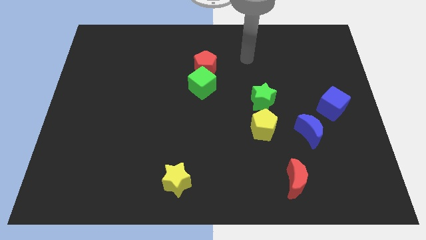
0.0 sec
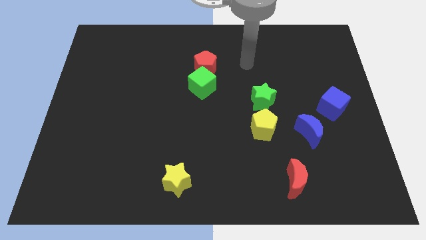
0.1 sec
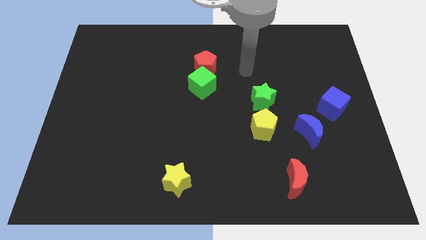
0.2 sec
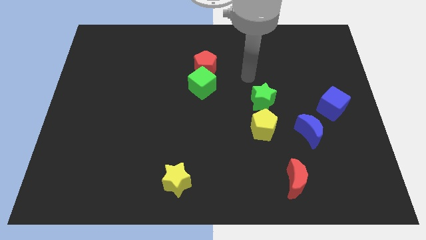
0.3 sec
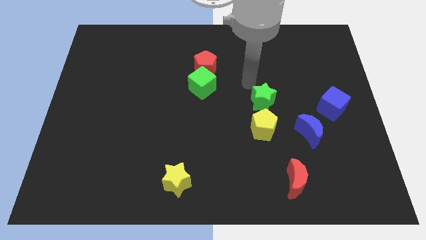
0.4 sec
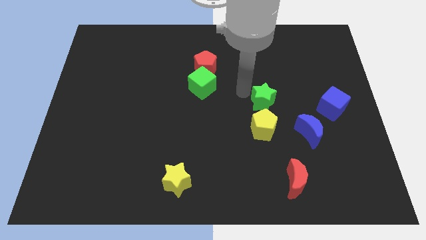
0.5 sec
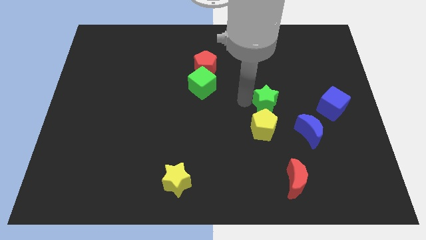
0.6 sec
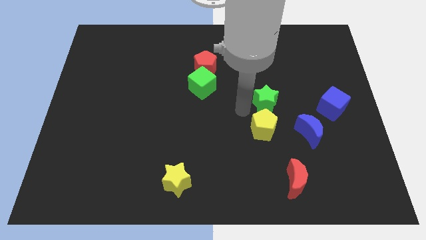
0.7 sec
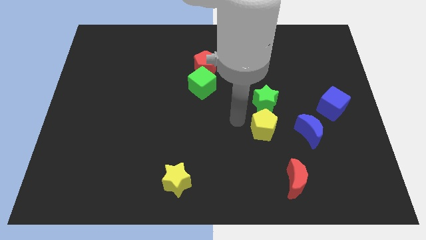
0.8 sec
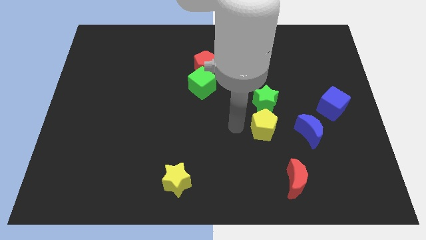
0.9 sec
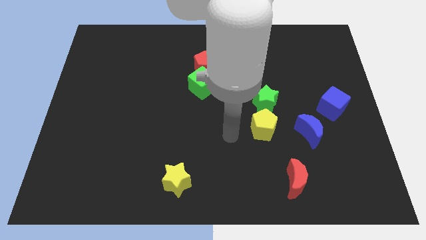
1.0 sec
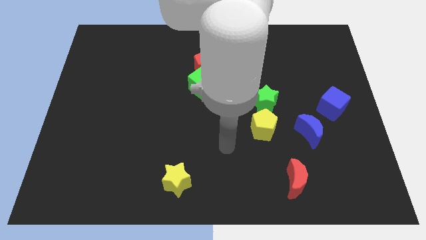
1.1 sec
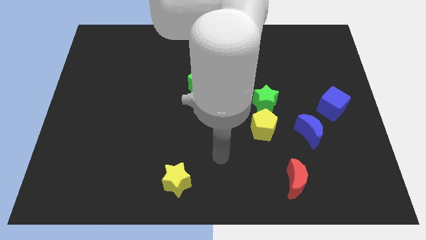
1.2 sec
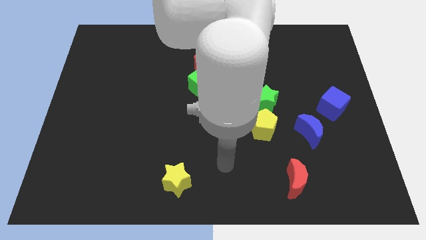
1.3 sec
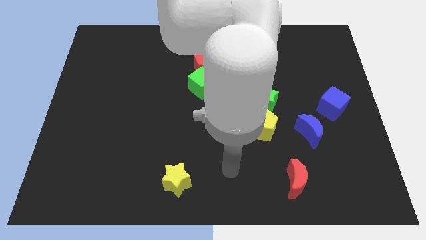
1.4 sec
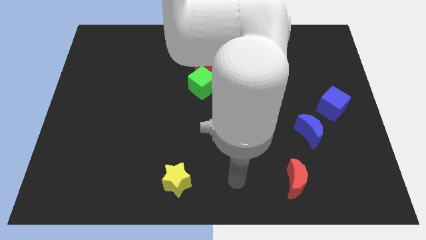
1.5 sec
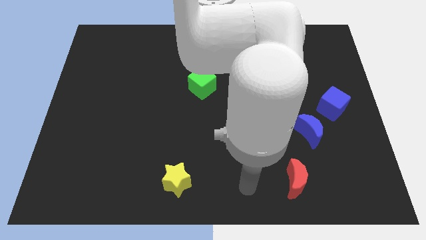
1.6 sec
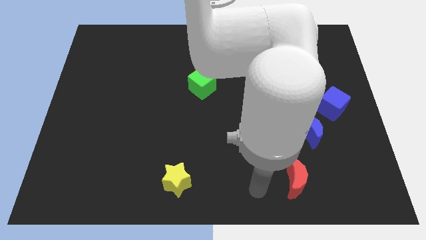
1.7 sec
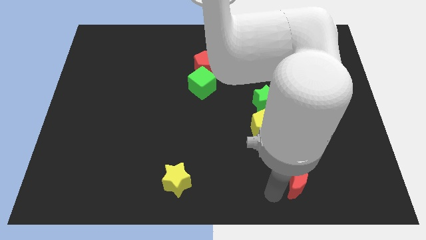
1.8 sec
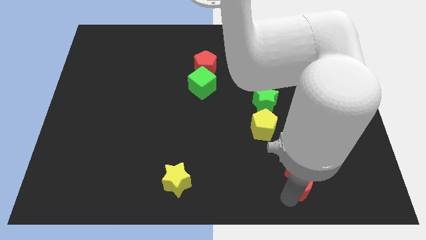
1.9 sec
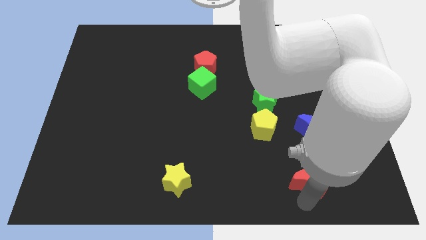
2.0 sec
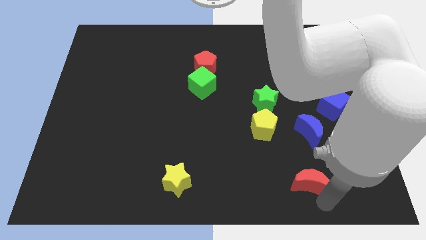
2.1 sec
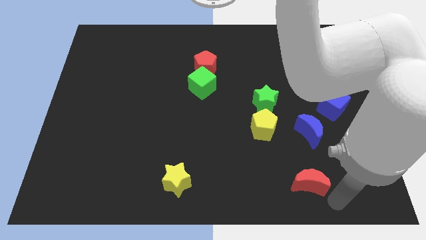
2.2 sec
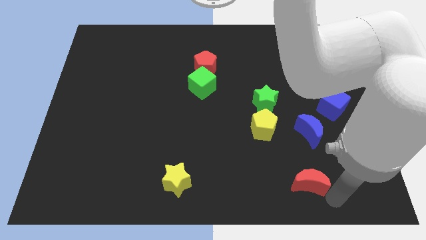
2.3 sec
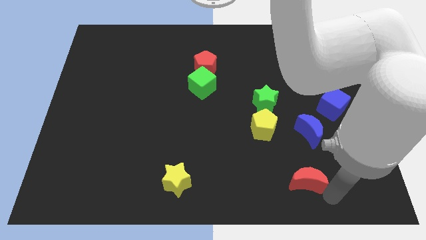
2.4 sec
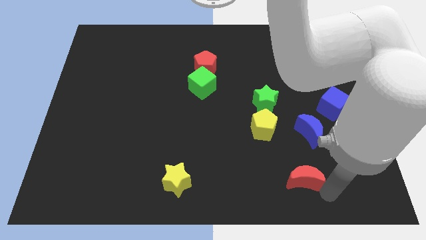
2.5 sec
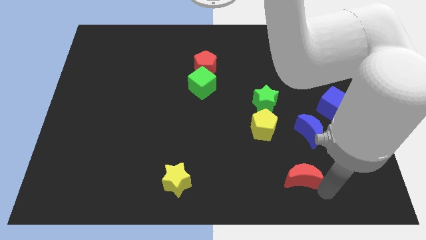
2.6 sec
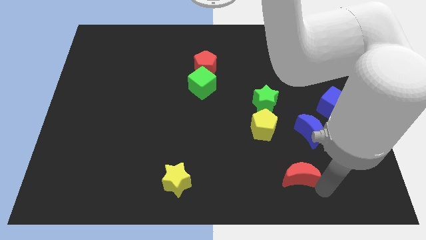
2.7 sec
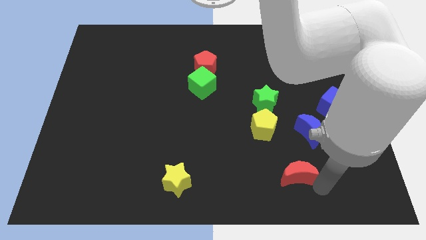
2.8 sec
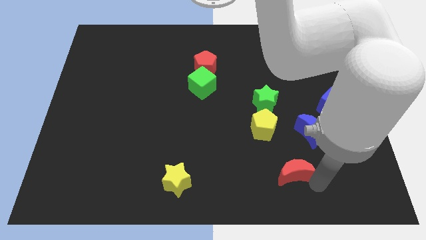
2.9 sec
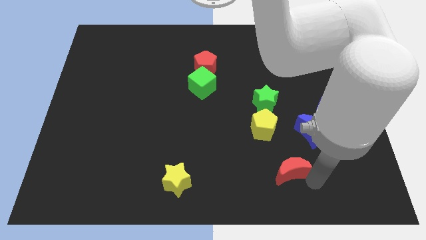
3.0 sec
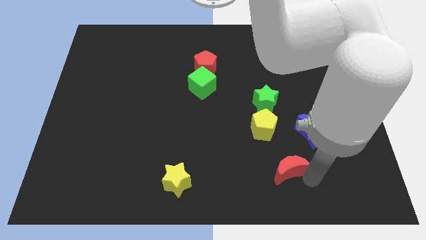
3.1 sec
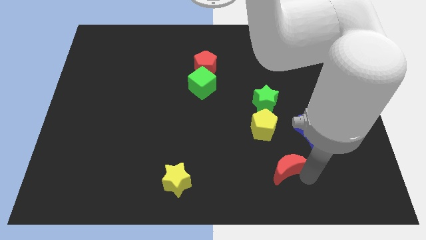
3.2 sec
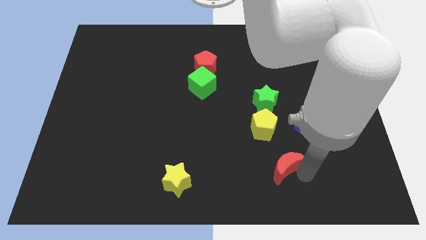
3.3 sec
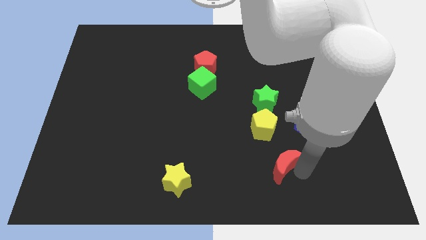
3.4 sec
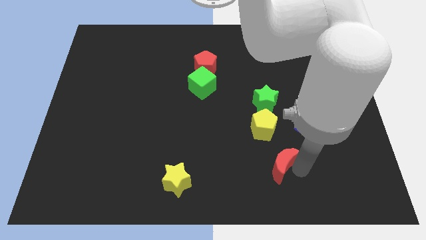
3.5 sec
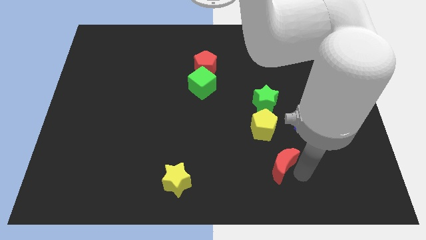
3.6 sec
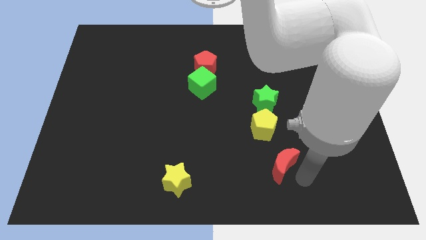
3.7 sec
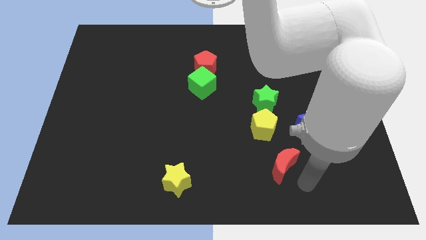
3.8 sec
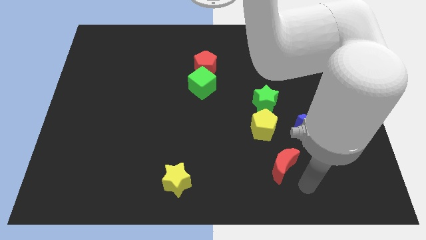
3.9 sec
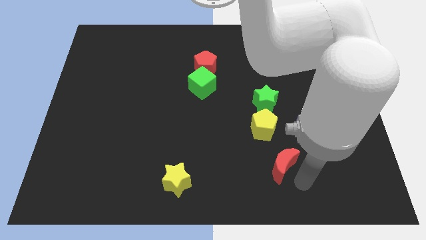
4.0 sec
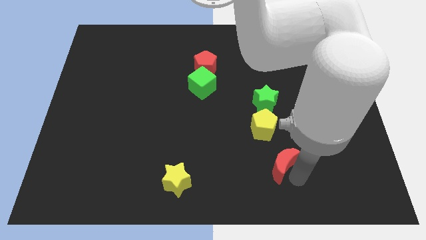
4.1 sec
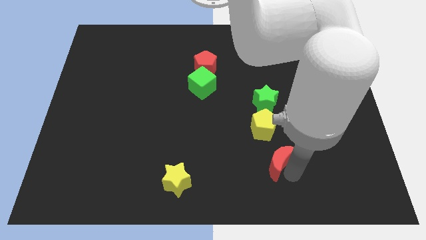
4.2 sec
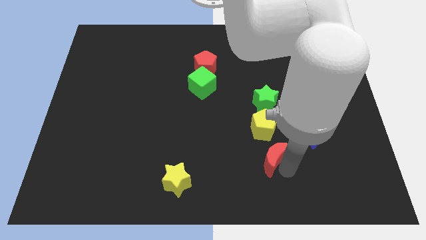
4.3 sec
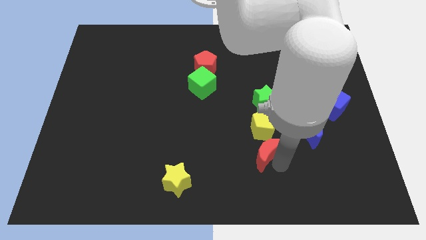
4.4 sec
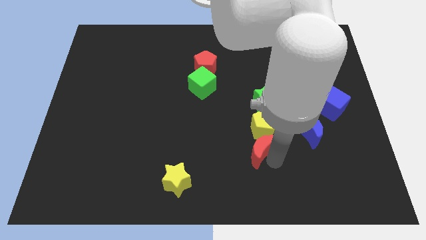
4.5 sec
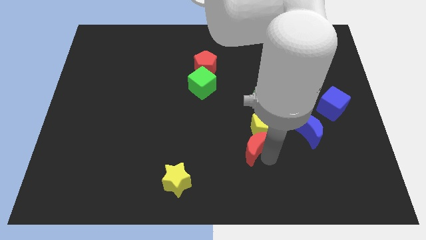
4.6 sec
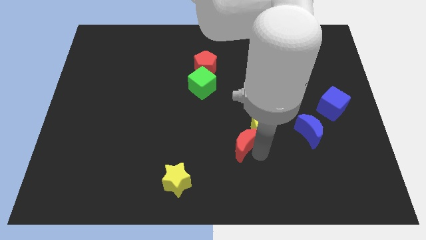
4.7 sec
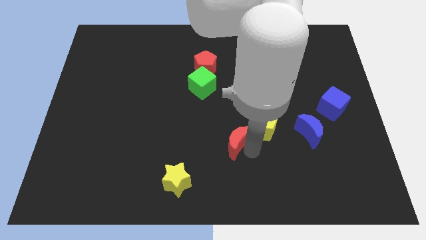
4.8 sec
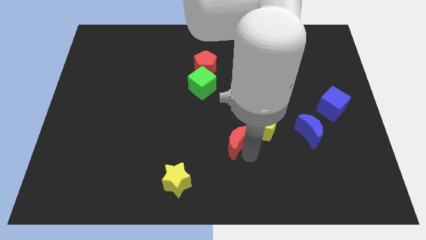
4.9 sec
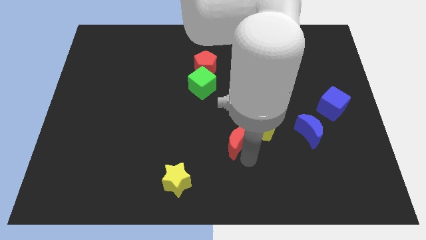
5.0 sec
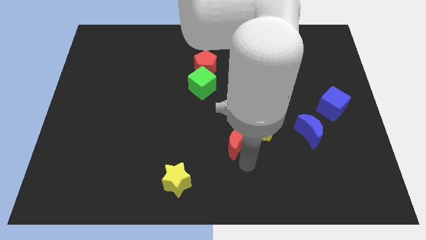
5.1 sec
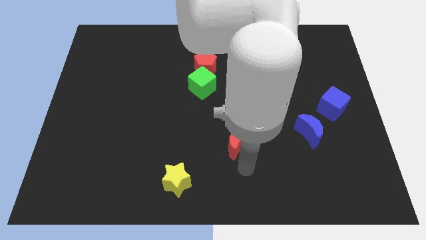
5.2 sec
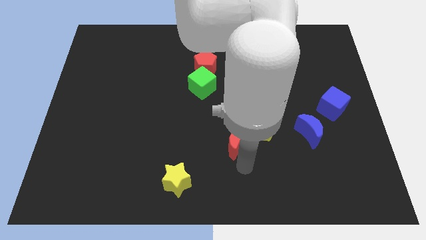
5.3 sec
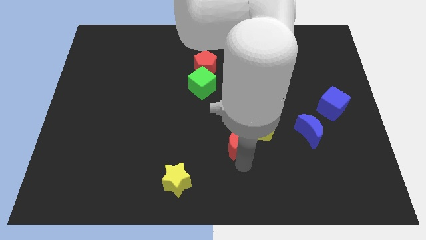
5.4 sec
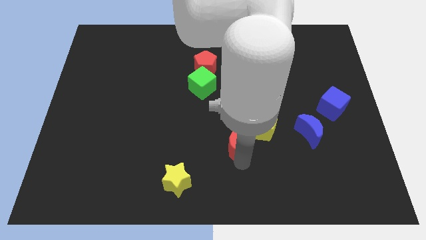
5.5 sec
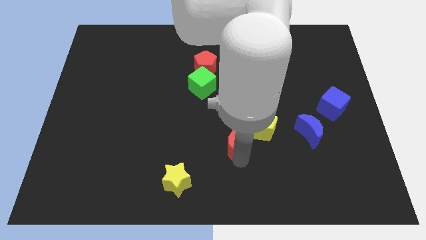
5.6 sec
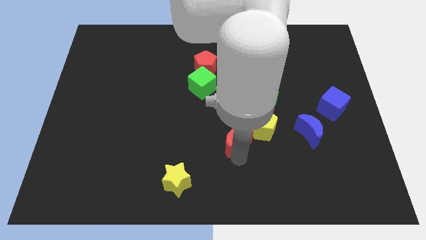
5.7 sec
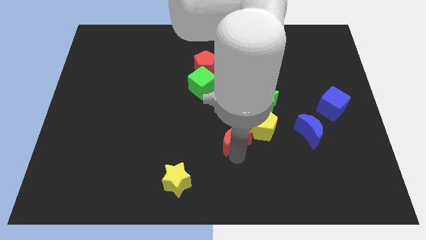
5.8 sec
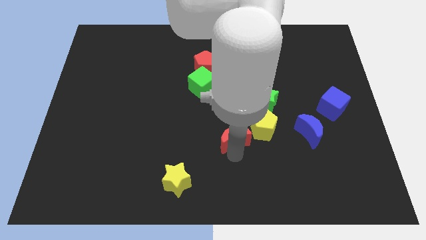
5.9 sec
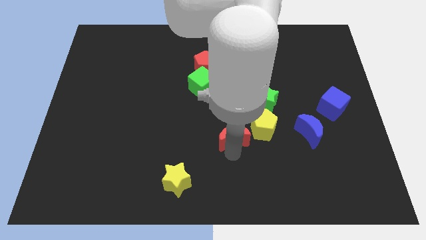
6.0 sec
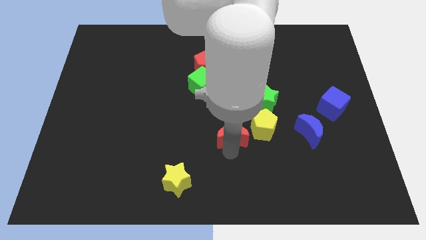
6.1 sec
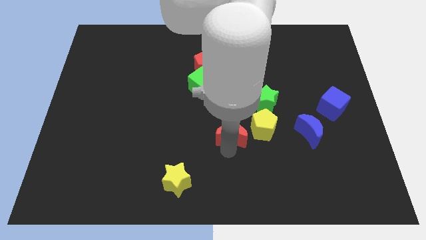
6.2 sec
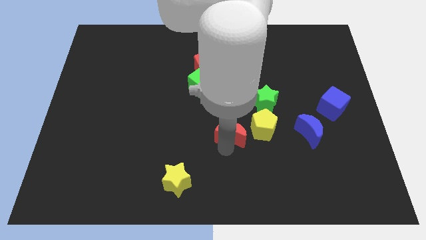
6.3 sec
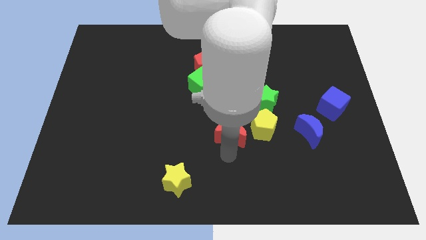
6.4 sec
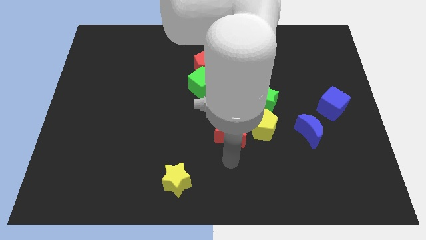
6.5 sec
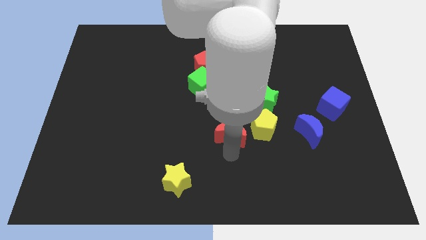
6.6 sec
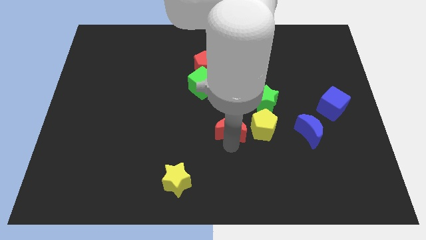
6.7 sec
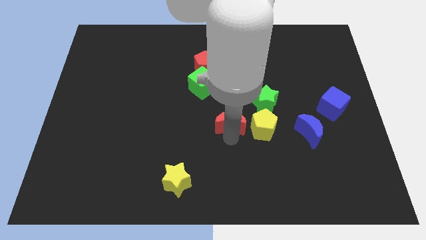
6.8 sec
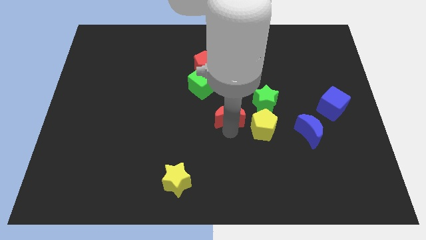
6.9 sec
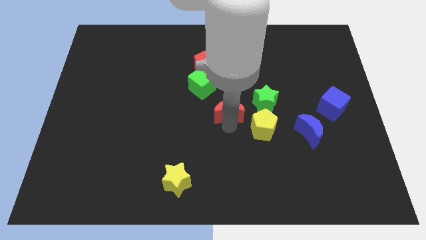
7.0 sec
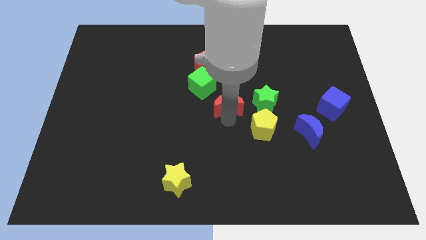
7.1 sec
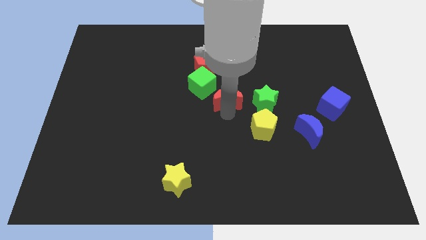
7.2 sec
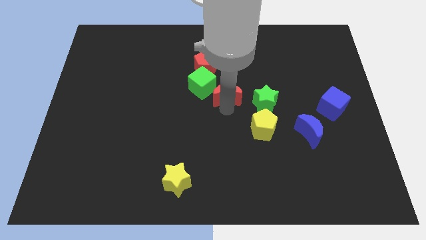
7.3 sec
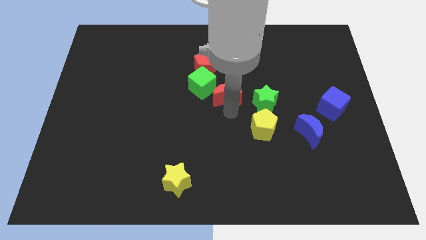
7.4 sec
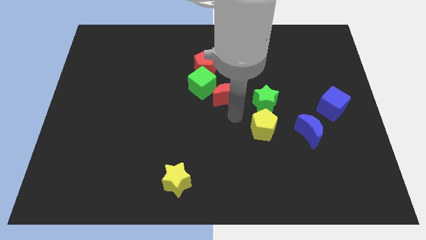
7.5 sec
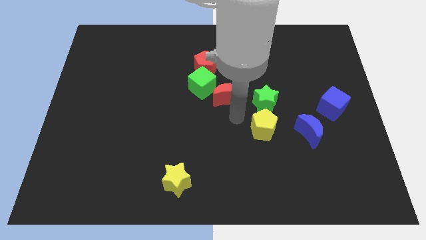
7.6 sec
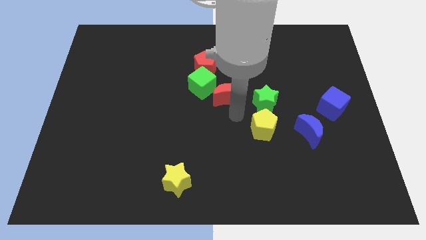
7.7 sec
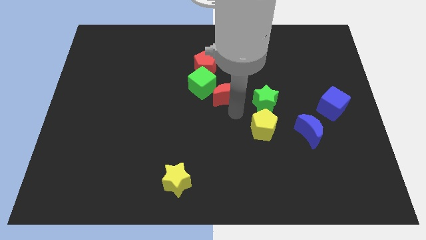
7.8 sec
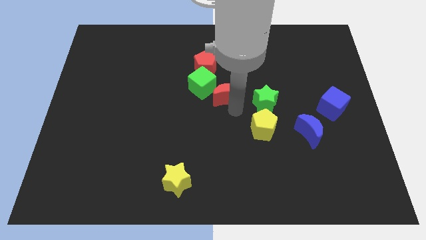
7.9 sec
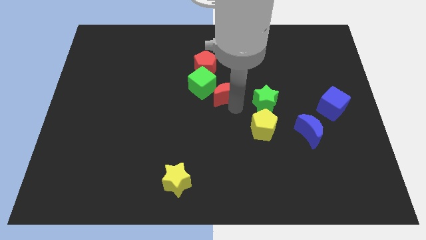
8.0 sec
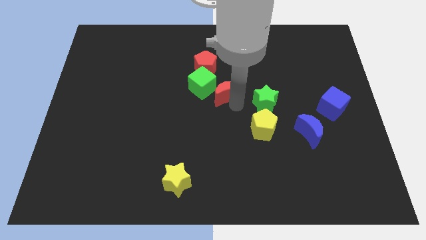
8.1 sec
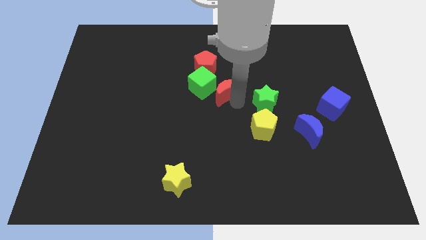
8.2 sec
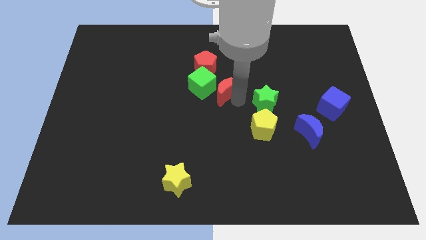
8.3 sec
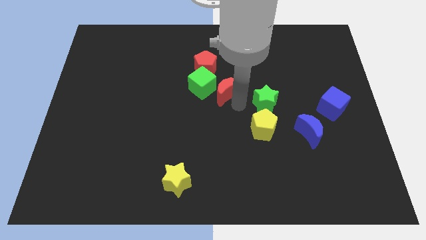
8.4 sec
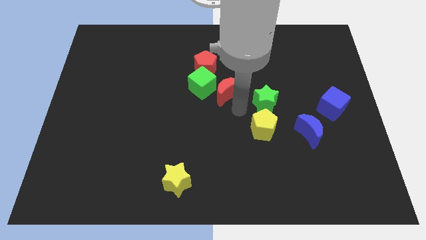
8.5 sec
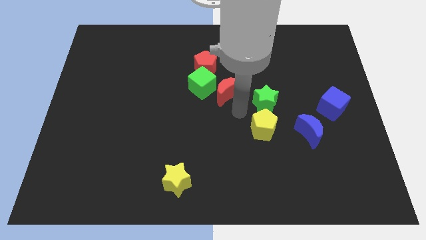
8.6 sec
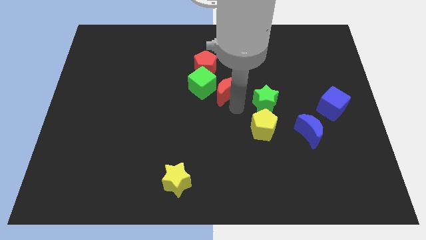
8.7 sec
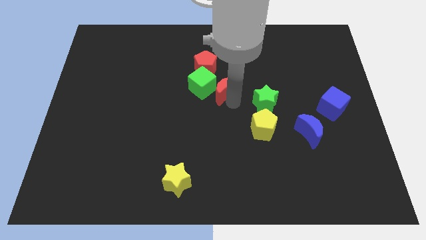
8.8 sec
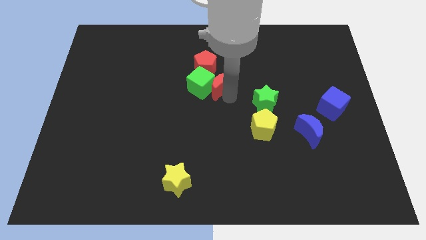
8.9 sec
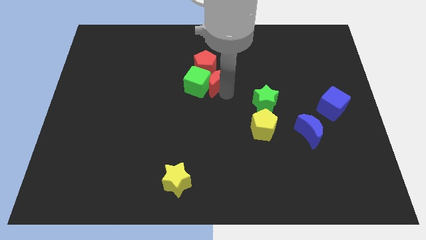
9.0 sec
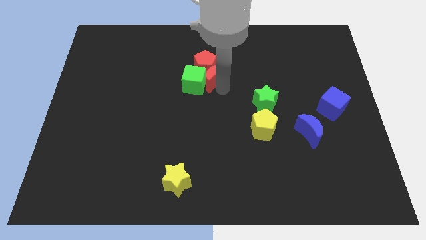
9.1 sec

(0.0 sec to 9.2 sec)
push the red moon close to the red pentagon
